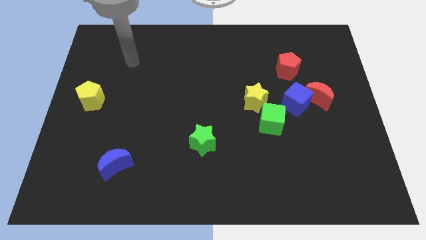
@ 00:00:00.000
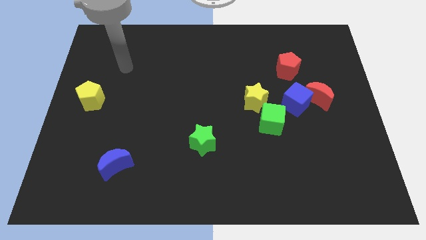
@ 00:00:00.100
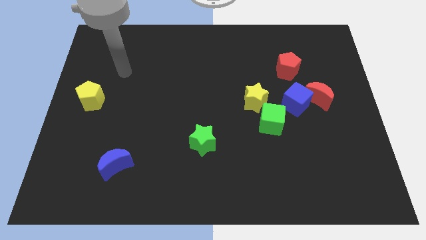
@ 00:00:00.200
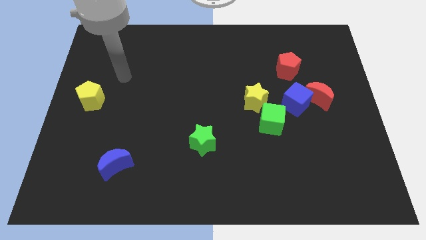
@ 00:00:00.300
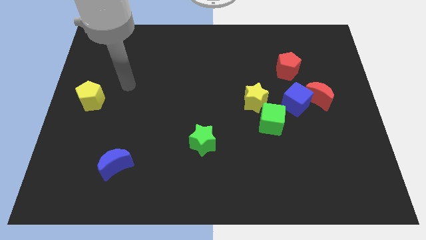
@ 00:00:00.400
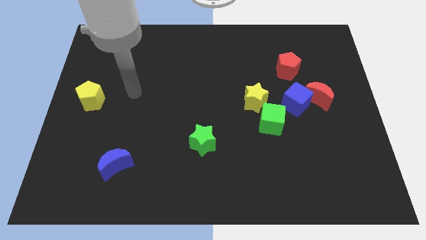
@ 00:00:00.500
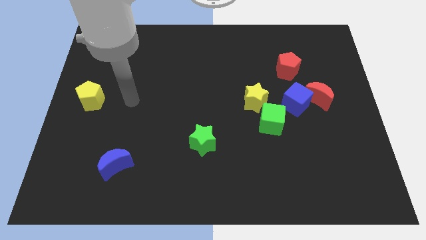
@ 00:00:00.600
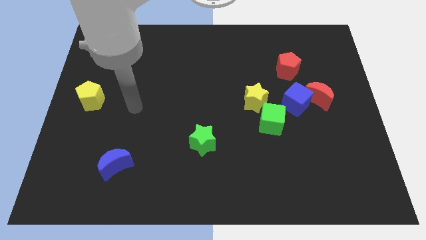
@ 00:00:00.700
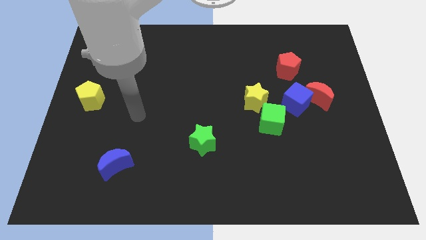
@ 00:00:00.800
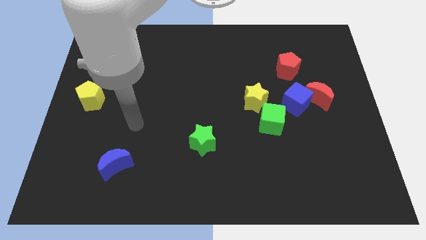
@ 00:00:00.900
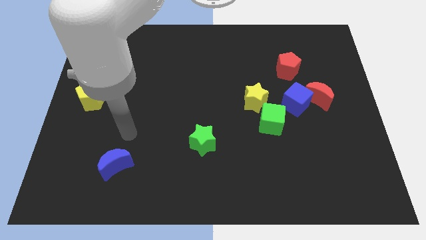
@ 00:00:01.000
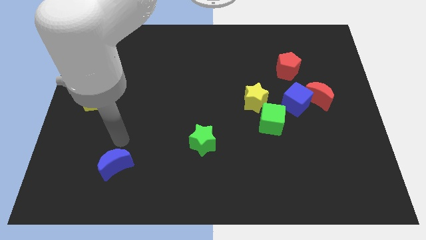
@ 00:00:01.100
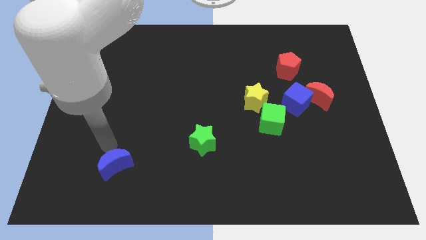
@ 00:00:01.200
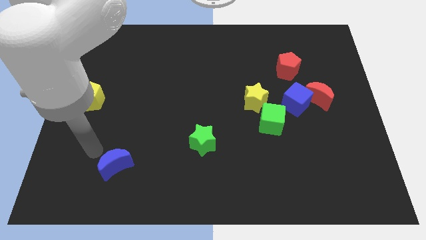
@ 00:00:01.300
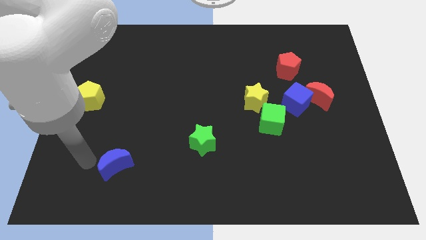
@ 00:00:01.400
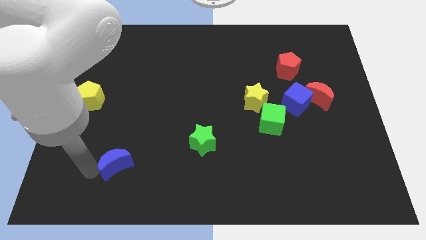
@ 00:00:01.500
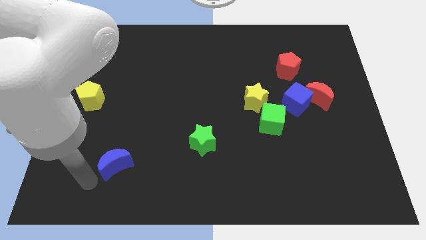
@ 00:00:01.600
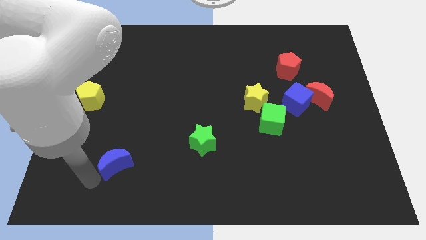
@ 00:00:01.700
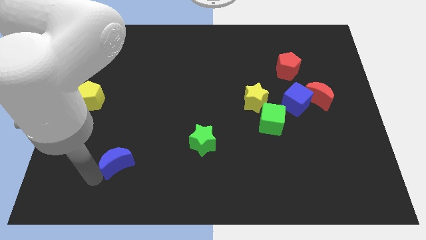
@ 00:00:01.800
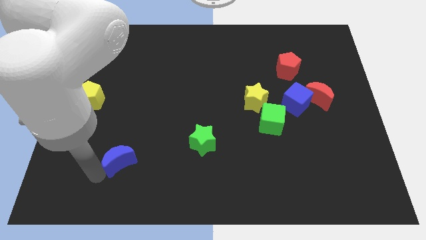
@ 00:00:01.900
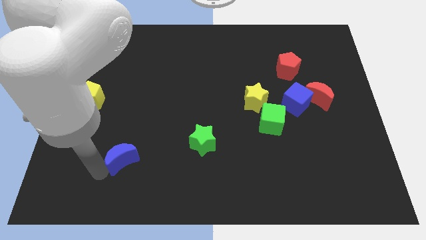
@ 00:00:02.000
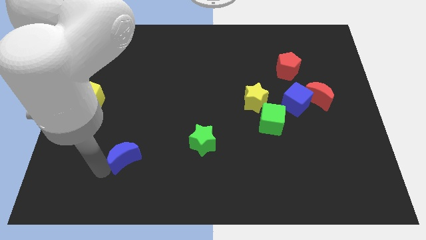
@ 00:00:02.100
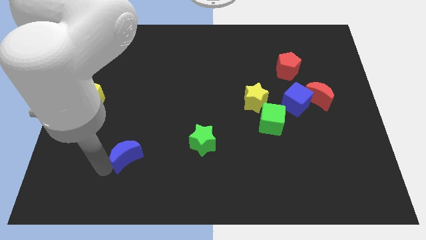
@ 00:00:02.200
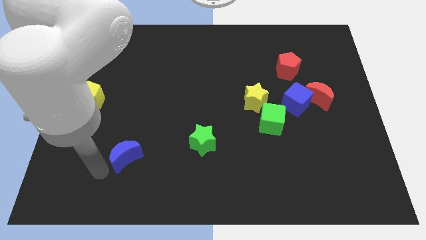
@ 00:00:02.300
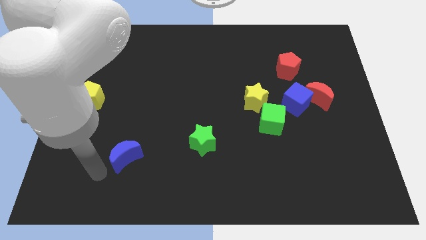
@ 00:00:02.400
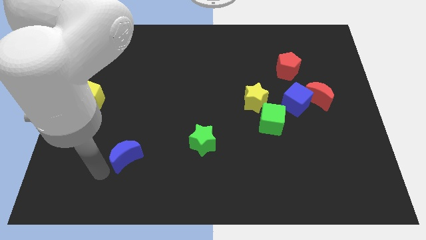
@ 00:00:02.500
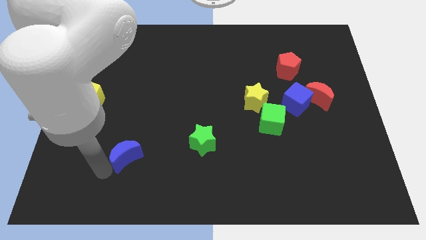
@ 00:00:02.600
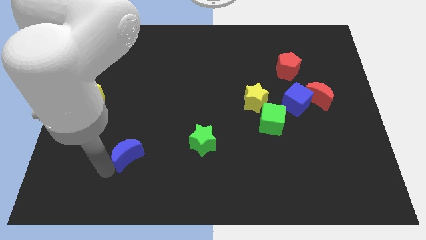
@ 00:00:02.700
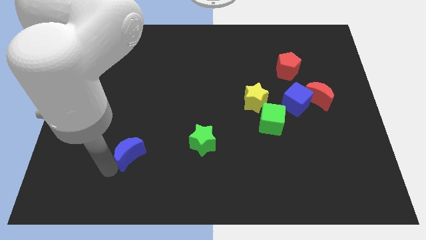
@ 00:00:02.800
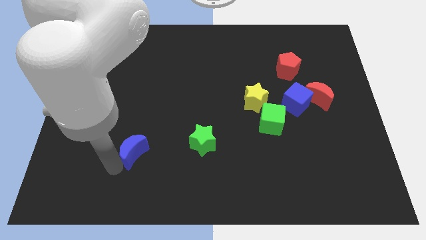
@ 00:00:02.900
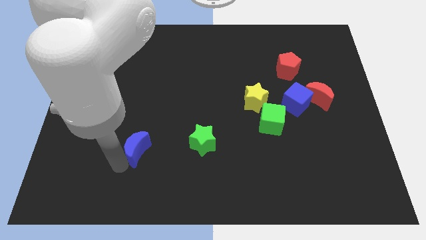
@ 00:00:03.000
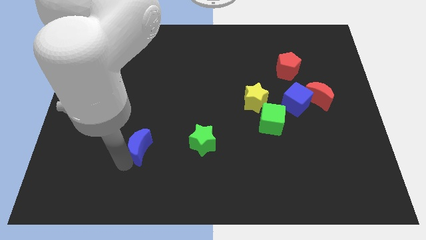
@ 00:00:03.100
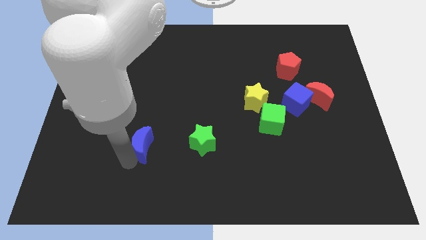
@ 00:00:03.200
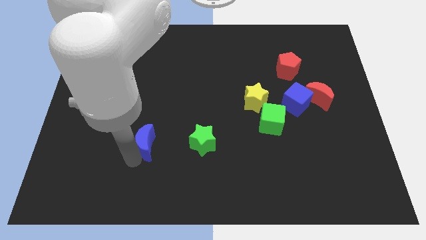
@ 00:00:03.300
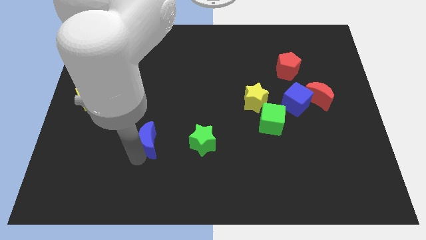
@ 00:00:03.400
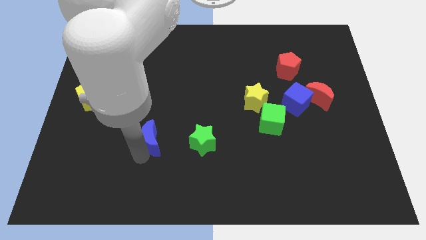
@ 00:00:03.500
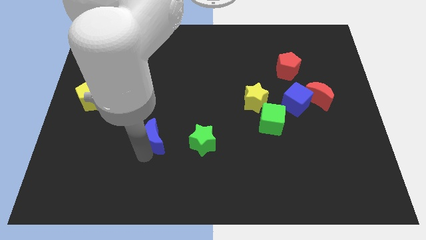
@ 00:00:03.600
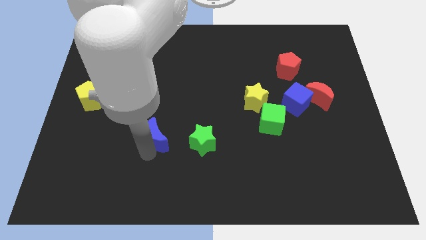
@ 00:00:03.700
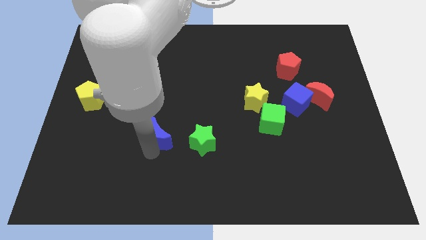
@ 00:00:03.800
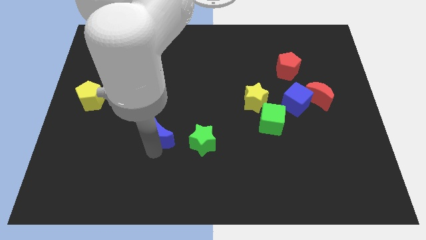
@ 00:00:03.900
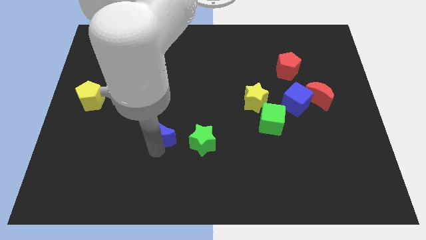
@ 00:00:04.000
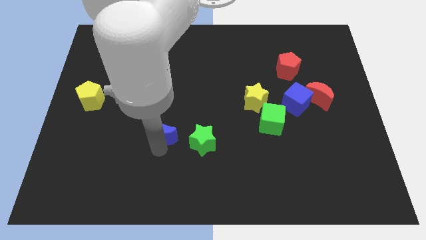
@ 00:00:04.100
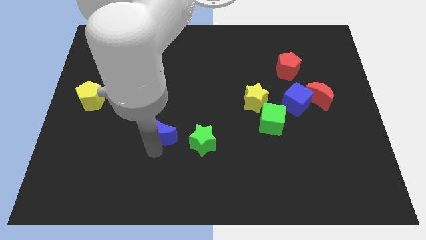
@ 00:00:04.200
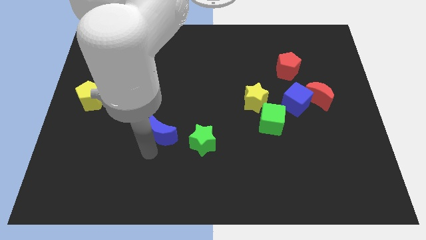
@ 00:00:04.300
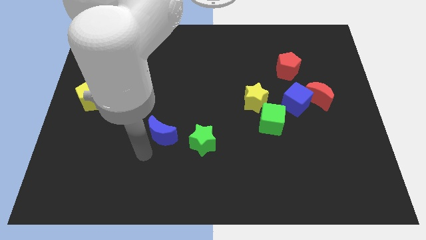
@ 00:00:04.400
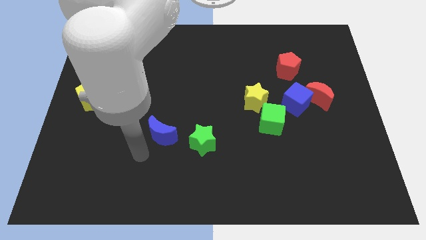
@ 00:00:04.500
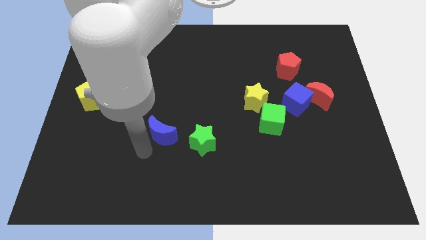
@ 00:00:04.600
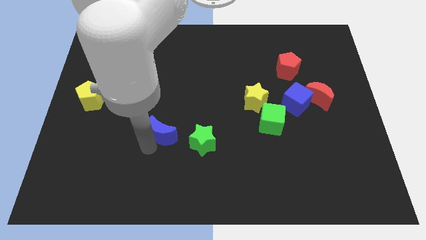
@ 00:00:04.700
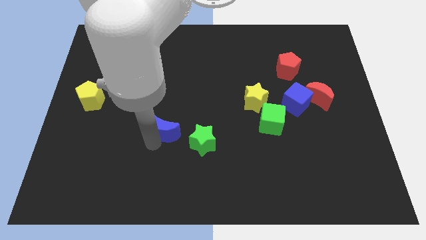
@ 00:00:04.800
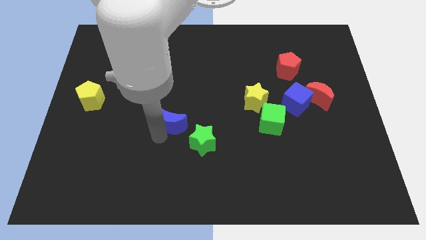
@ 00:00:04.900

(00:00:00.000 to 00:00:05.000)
move the blue moon to the center
